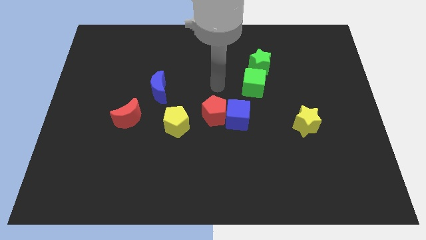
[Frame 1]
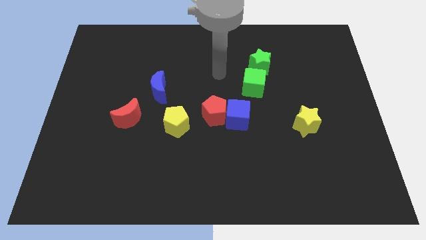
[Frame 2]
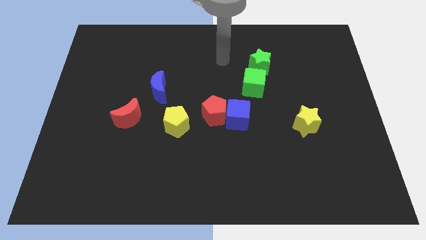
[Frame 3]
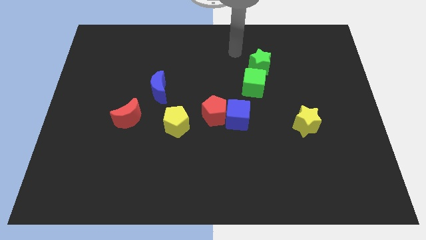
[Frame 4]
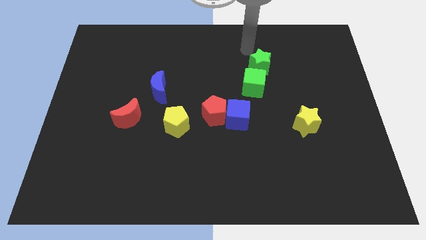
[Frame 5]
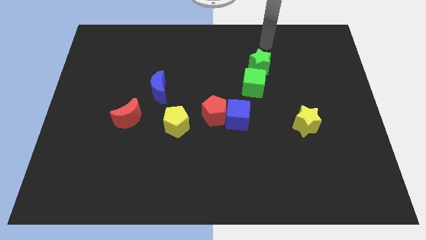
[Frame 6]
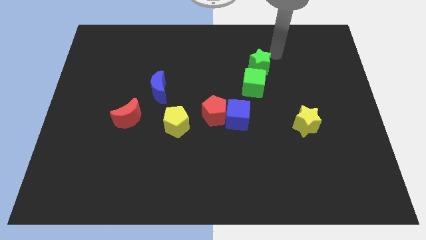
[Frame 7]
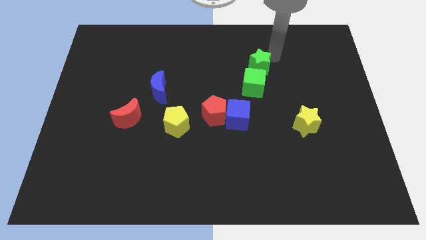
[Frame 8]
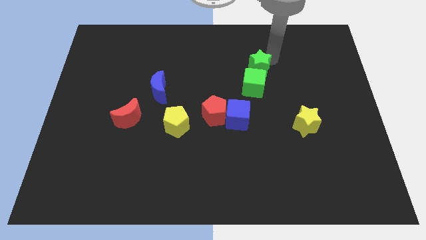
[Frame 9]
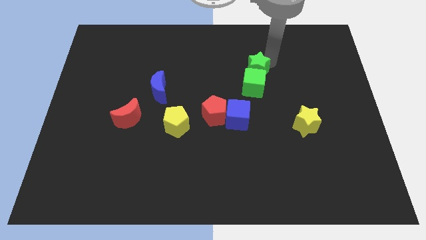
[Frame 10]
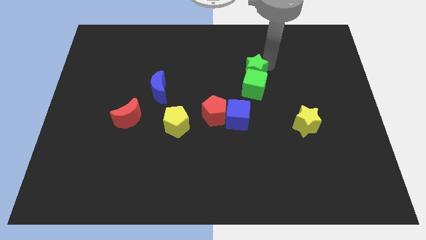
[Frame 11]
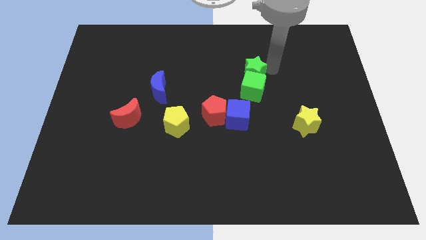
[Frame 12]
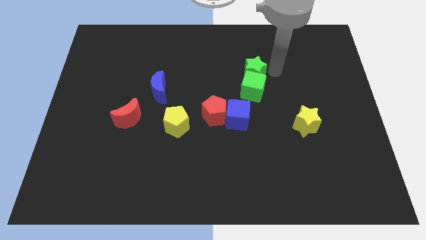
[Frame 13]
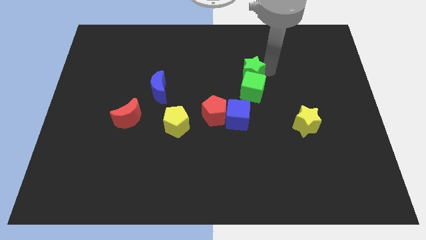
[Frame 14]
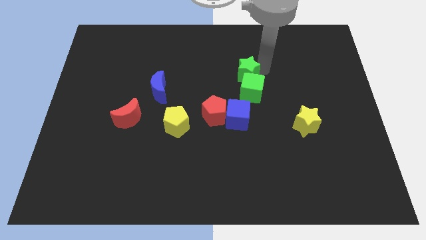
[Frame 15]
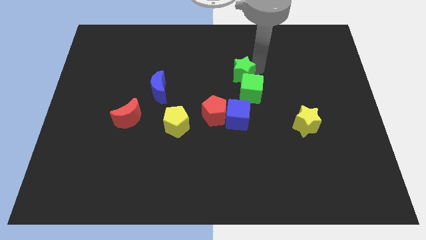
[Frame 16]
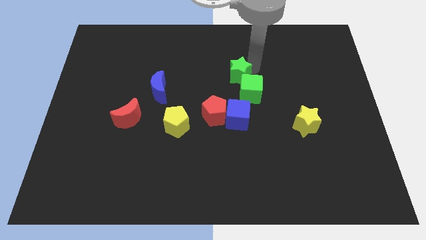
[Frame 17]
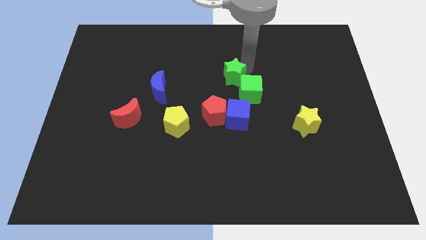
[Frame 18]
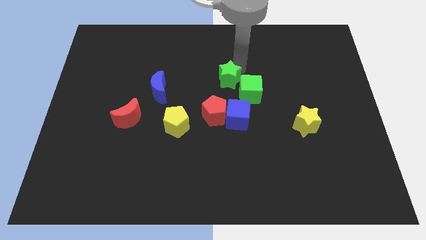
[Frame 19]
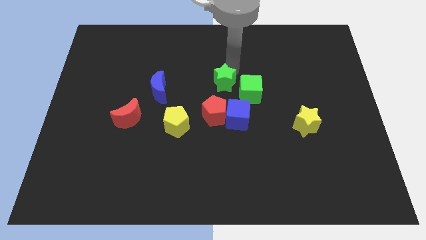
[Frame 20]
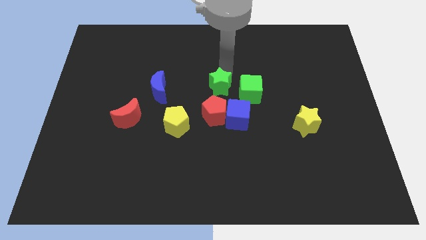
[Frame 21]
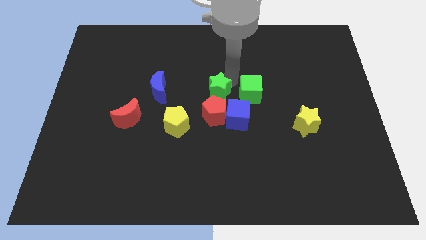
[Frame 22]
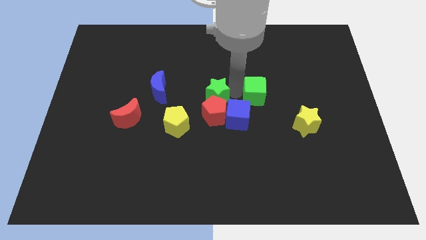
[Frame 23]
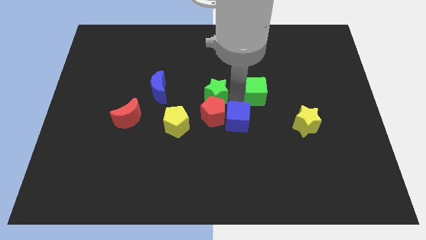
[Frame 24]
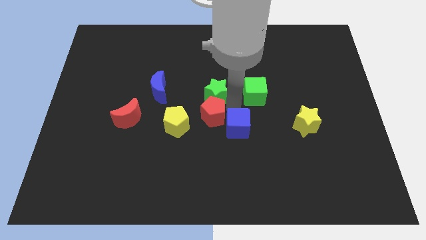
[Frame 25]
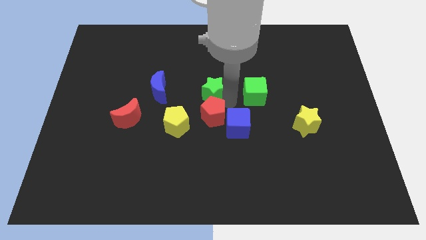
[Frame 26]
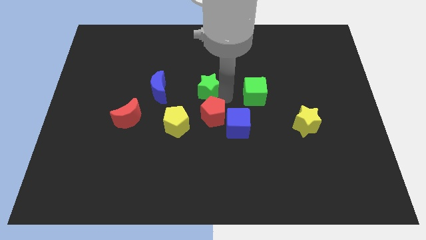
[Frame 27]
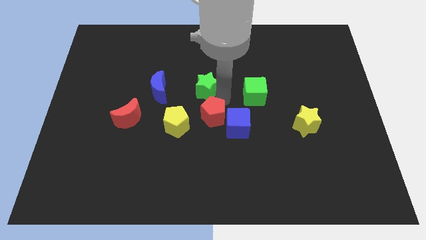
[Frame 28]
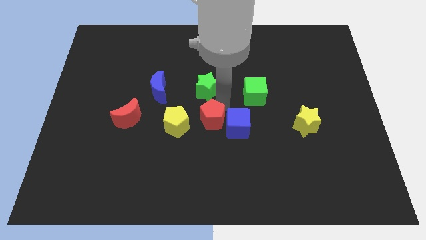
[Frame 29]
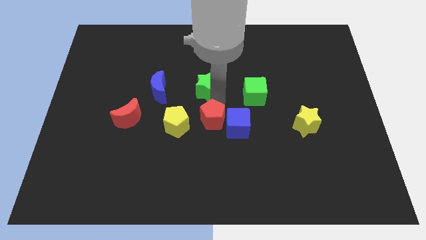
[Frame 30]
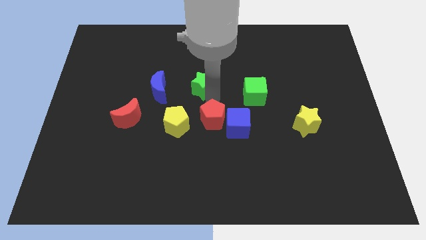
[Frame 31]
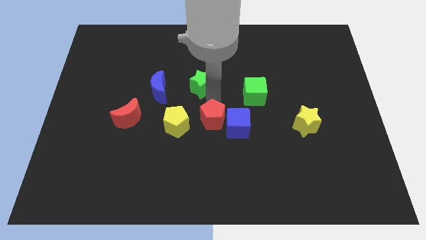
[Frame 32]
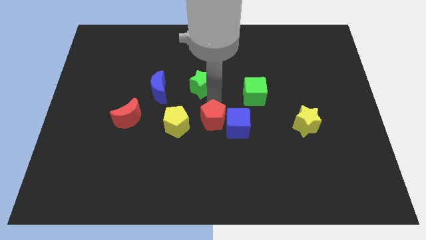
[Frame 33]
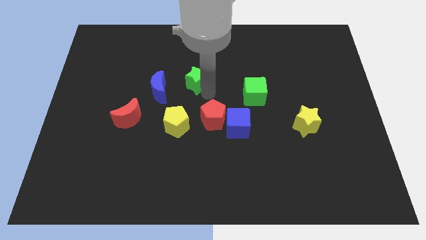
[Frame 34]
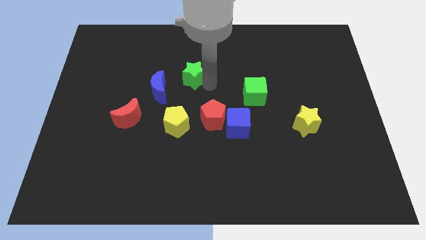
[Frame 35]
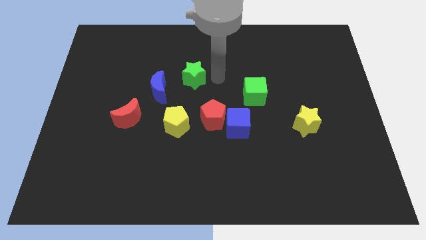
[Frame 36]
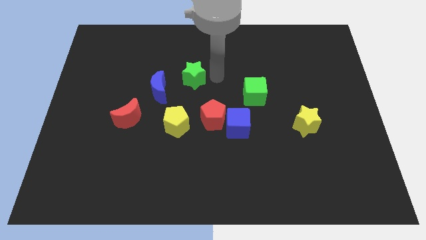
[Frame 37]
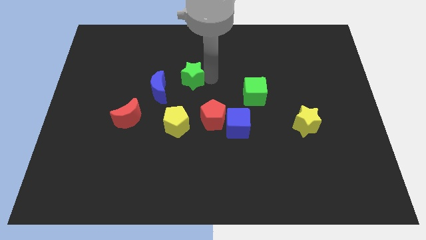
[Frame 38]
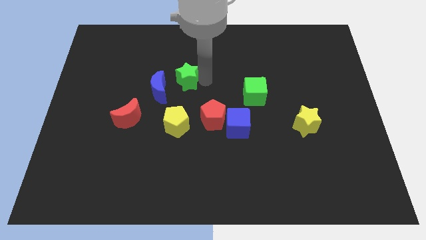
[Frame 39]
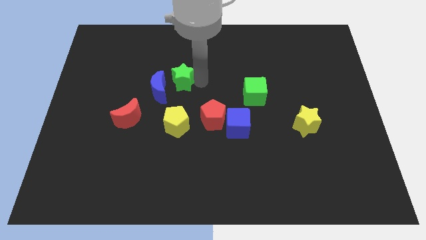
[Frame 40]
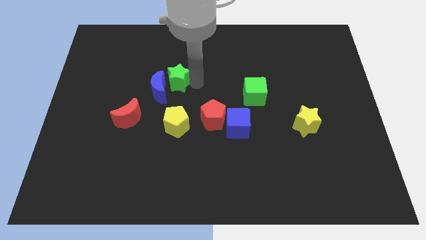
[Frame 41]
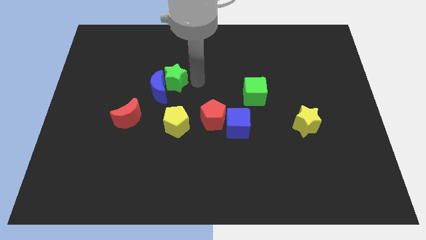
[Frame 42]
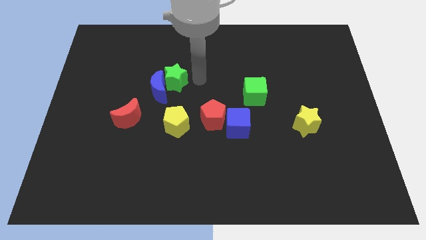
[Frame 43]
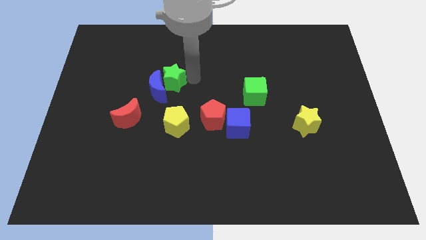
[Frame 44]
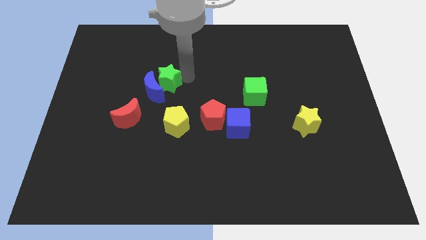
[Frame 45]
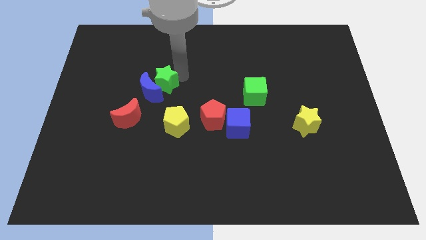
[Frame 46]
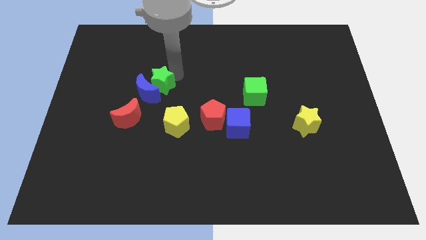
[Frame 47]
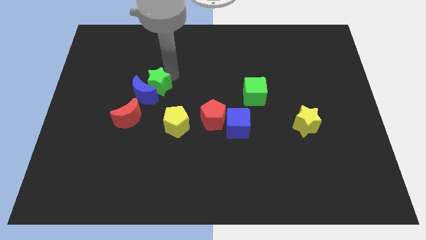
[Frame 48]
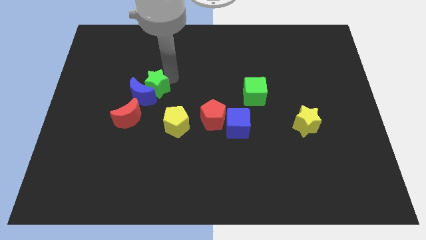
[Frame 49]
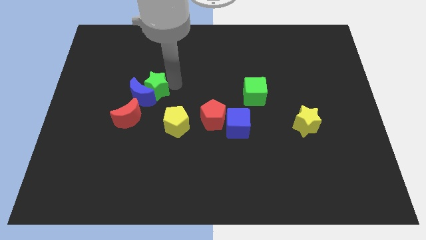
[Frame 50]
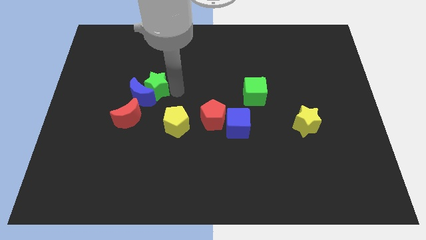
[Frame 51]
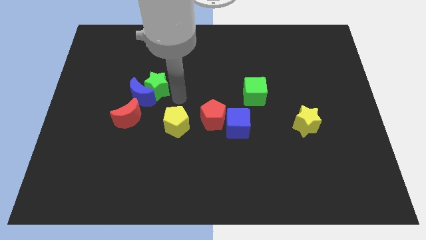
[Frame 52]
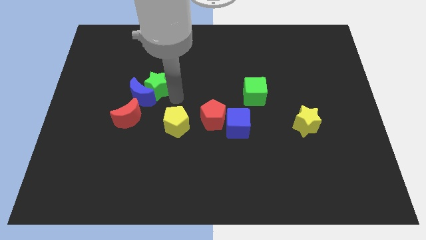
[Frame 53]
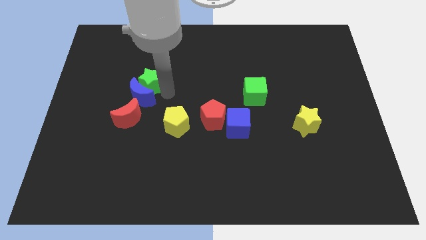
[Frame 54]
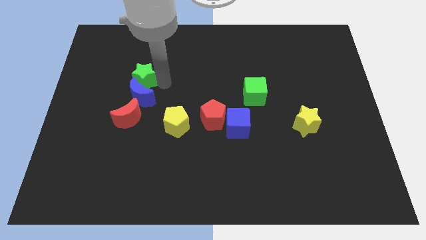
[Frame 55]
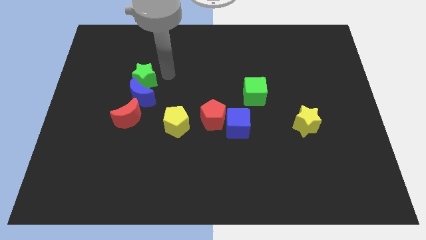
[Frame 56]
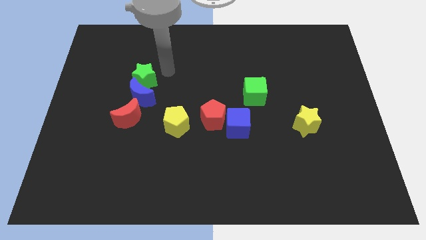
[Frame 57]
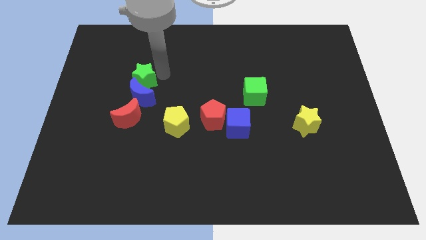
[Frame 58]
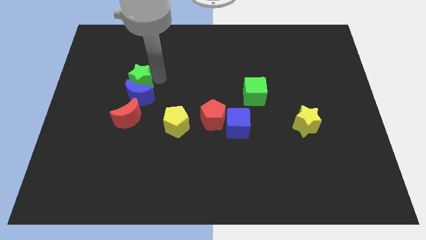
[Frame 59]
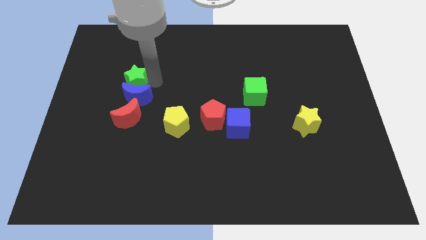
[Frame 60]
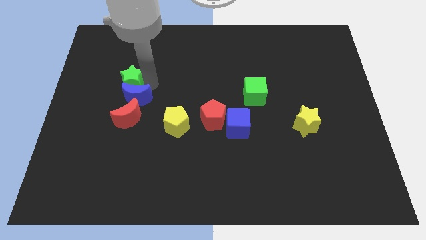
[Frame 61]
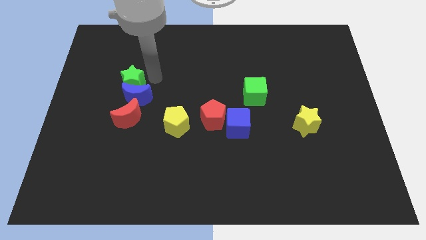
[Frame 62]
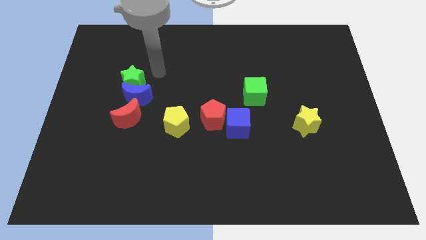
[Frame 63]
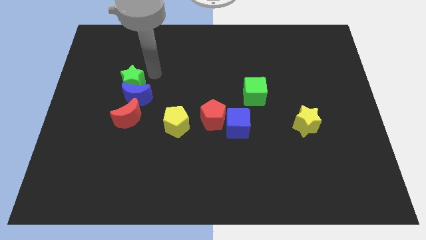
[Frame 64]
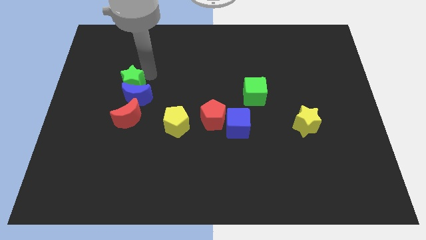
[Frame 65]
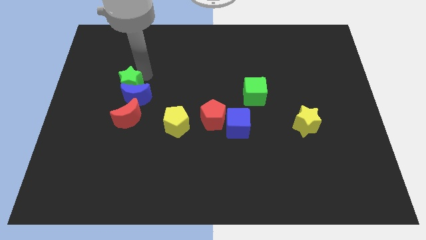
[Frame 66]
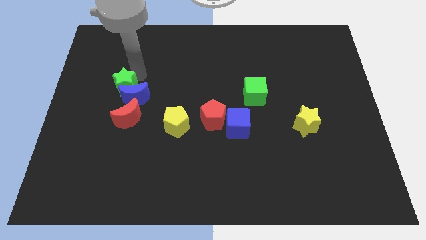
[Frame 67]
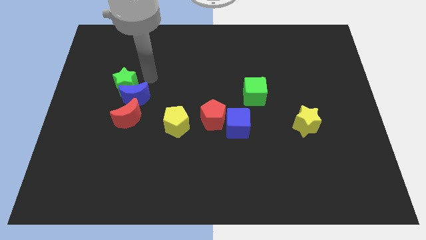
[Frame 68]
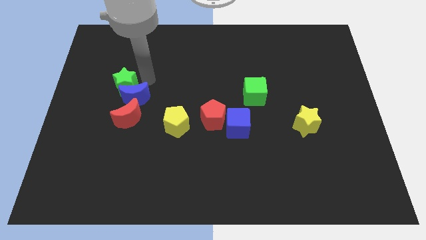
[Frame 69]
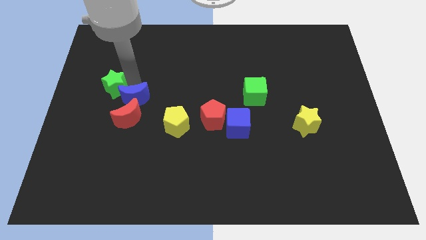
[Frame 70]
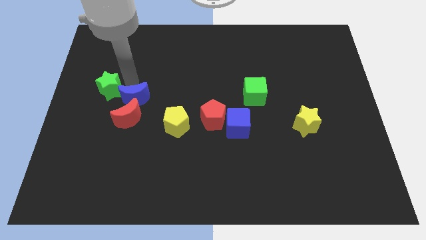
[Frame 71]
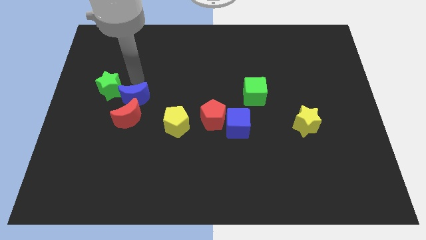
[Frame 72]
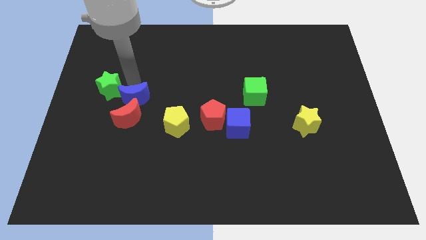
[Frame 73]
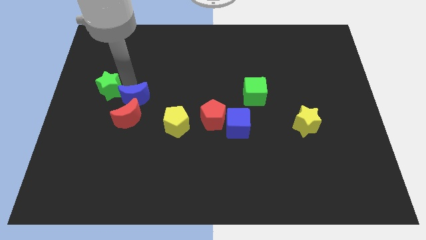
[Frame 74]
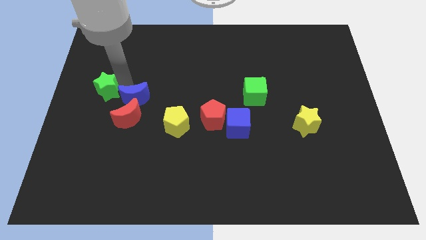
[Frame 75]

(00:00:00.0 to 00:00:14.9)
push the green star to the left side of the board
